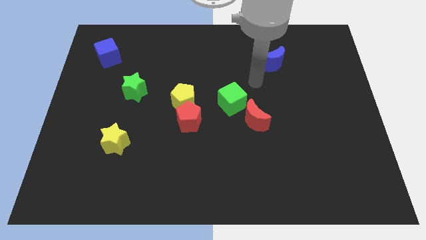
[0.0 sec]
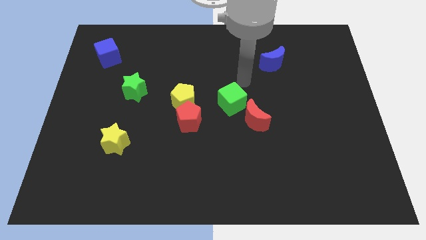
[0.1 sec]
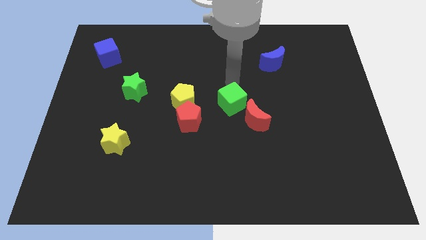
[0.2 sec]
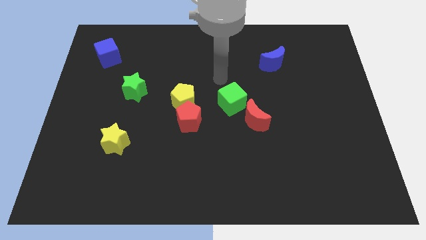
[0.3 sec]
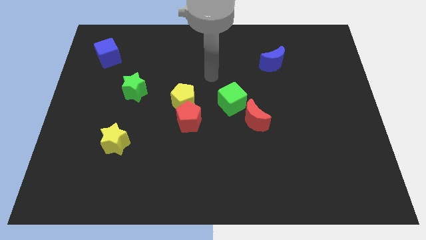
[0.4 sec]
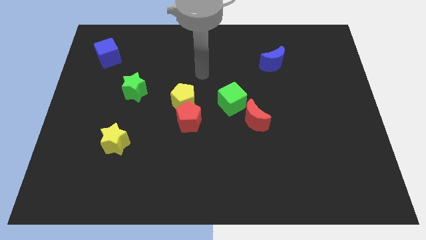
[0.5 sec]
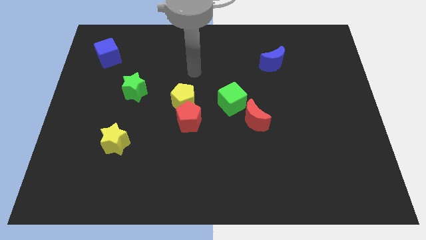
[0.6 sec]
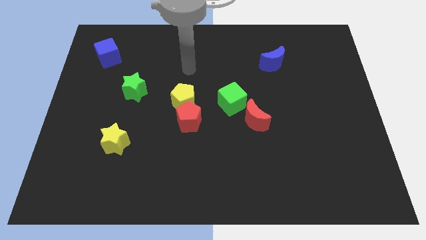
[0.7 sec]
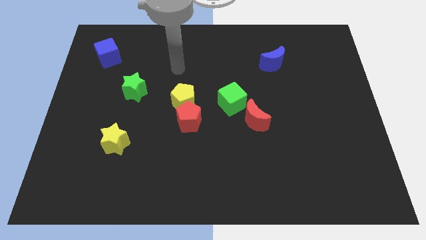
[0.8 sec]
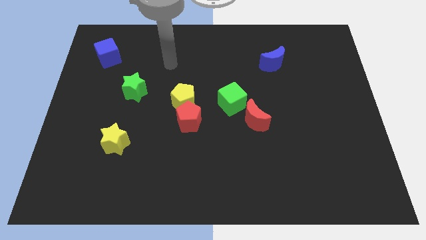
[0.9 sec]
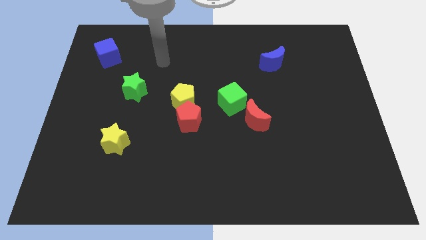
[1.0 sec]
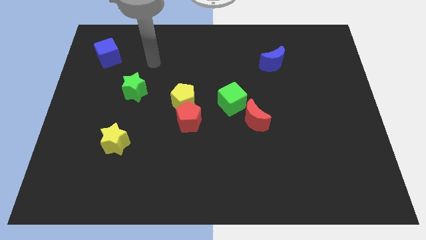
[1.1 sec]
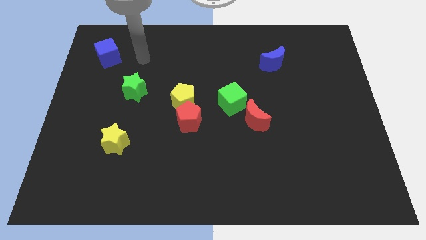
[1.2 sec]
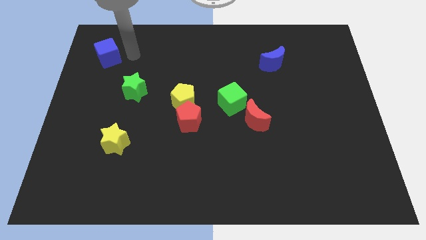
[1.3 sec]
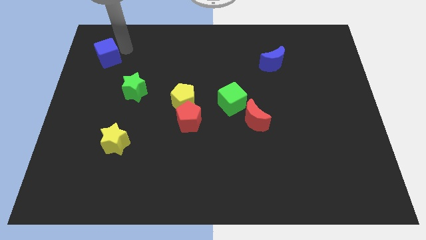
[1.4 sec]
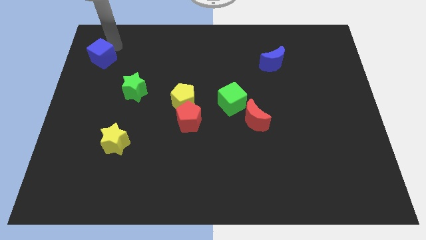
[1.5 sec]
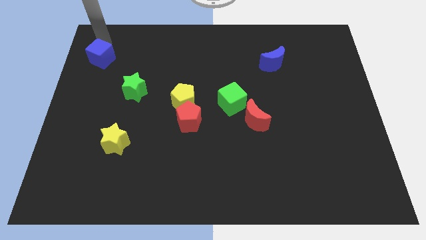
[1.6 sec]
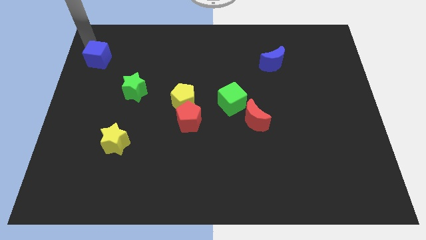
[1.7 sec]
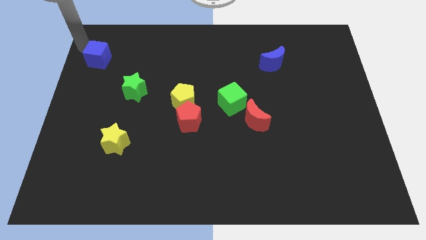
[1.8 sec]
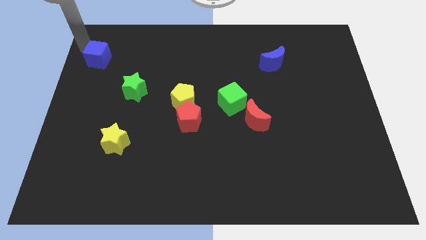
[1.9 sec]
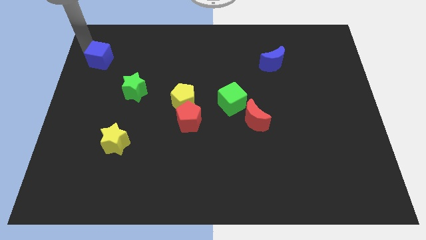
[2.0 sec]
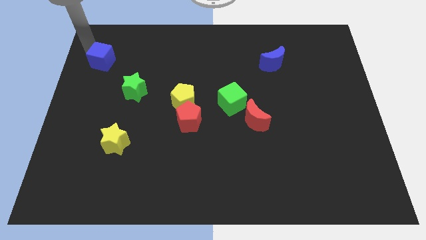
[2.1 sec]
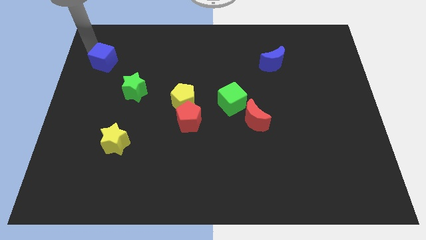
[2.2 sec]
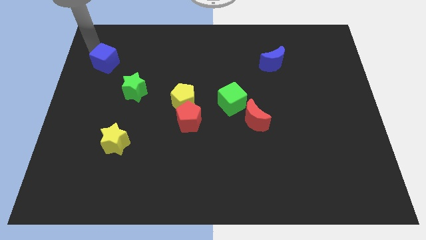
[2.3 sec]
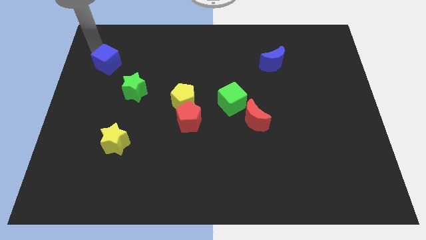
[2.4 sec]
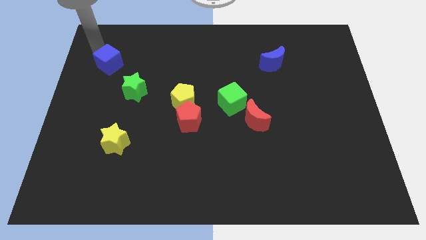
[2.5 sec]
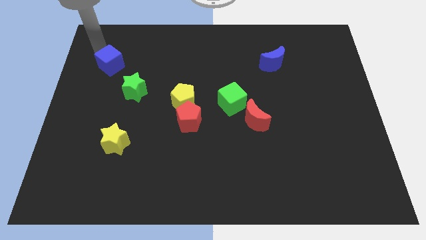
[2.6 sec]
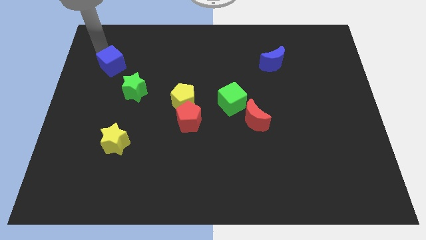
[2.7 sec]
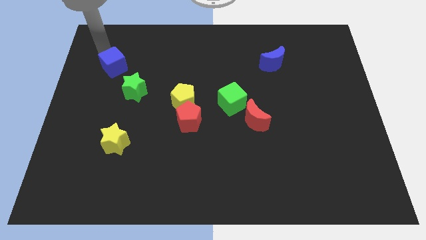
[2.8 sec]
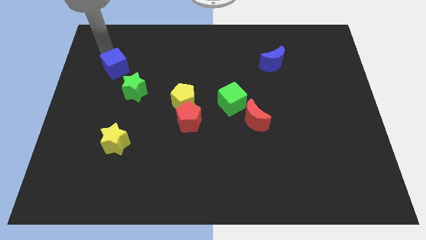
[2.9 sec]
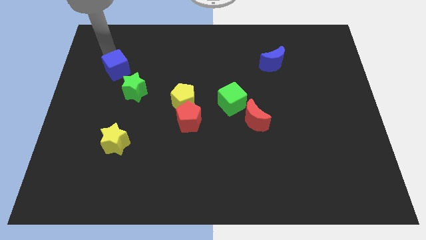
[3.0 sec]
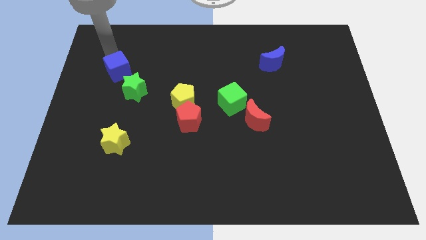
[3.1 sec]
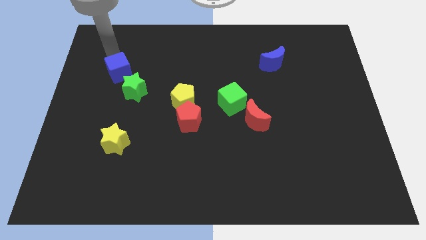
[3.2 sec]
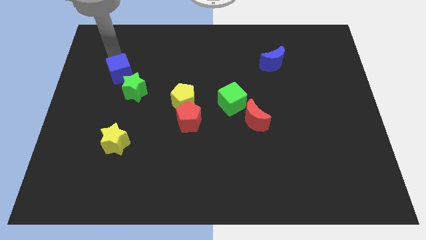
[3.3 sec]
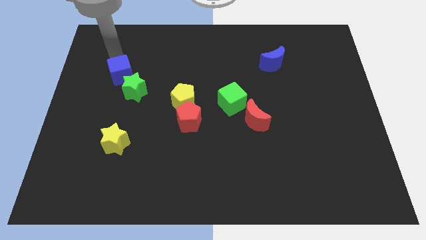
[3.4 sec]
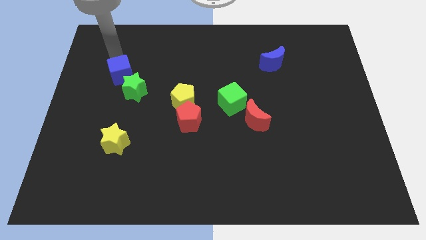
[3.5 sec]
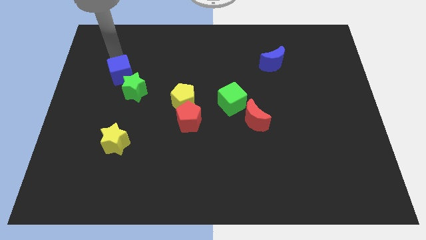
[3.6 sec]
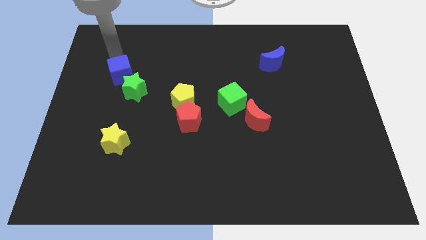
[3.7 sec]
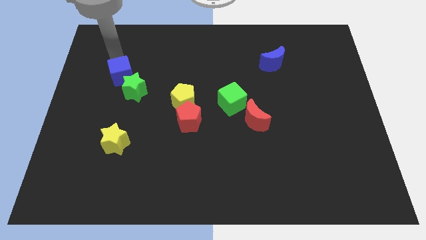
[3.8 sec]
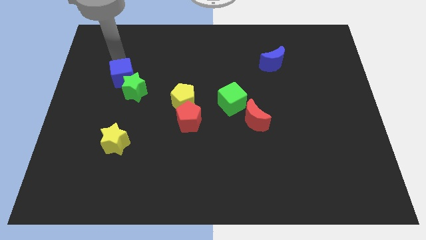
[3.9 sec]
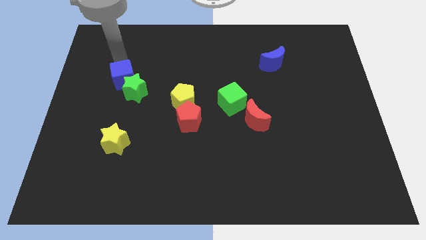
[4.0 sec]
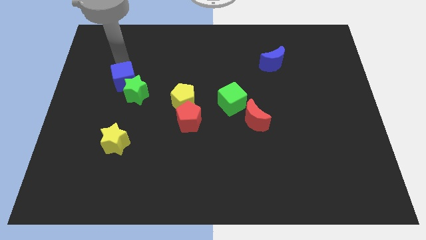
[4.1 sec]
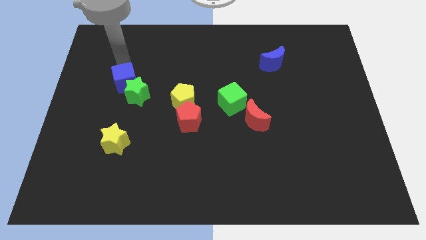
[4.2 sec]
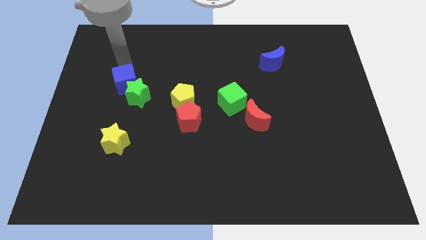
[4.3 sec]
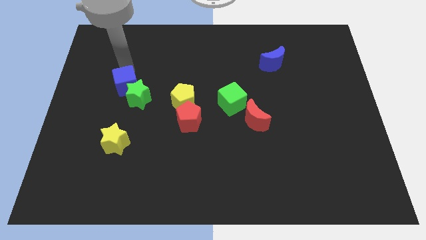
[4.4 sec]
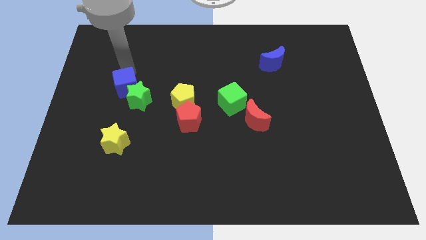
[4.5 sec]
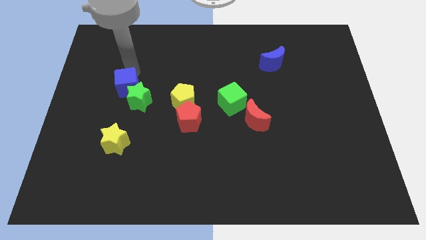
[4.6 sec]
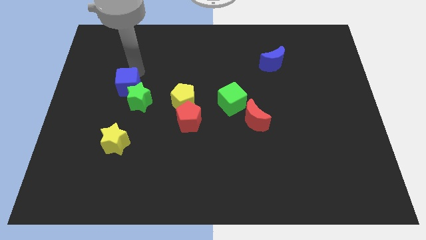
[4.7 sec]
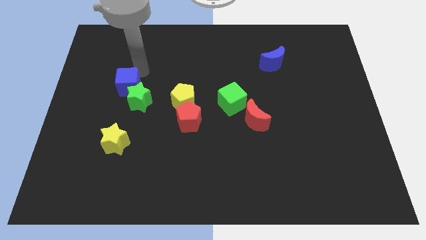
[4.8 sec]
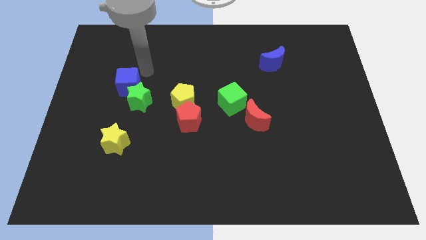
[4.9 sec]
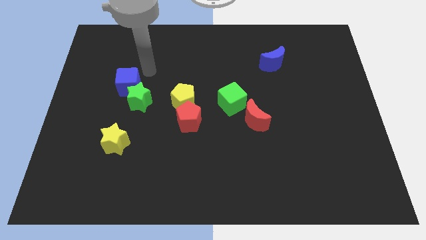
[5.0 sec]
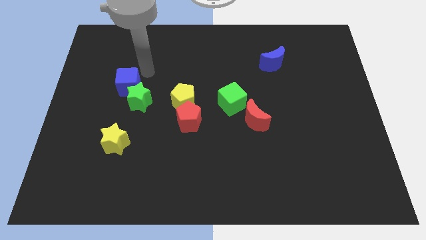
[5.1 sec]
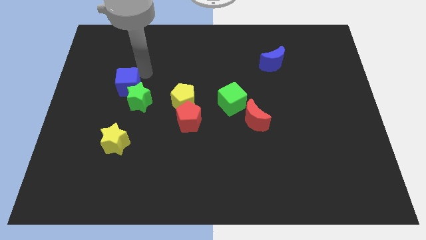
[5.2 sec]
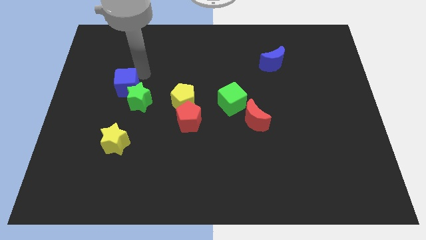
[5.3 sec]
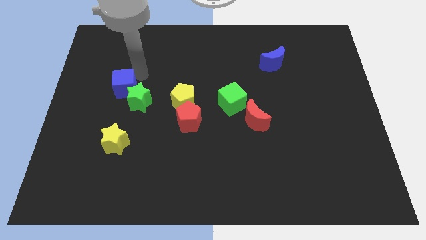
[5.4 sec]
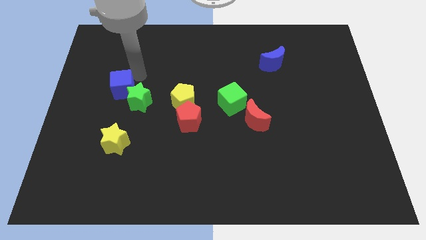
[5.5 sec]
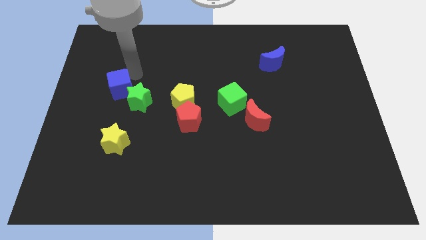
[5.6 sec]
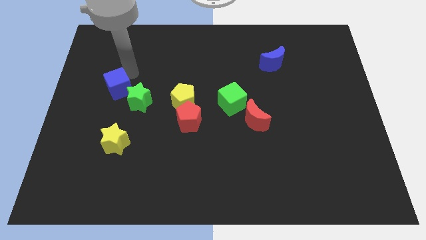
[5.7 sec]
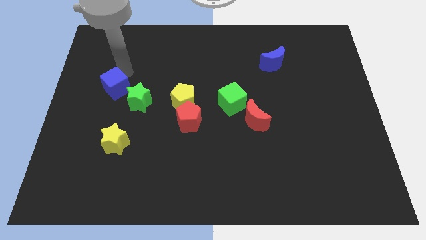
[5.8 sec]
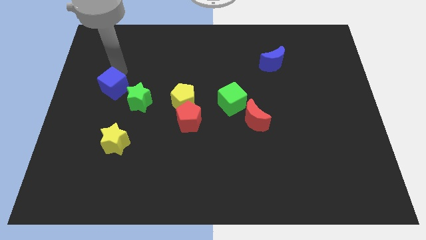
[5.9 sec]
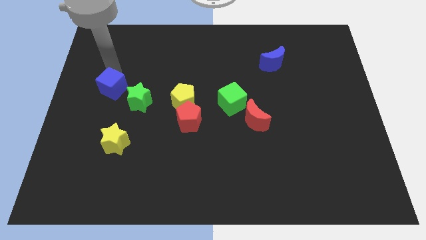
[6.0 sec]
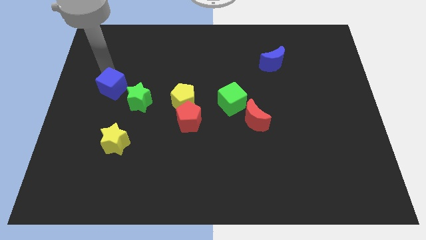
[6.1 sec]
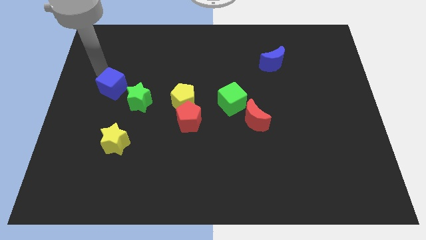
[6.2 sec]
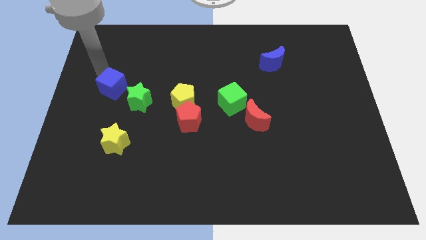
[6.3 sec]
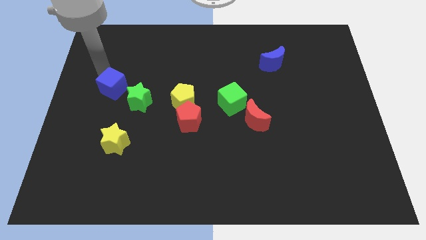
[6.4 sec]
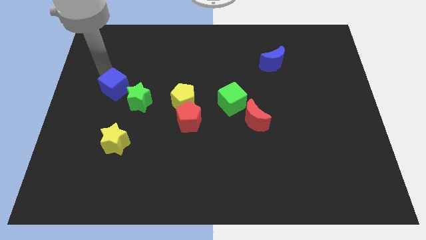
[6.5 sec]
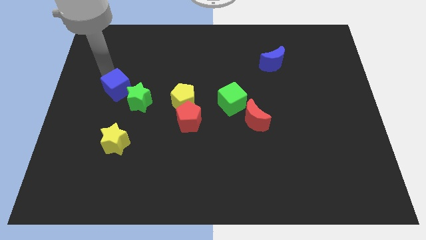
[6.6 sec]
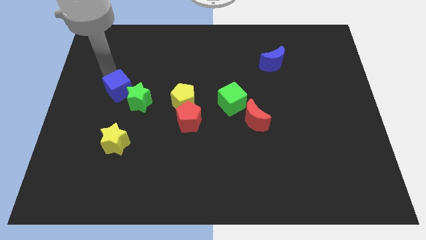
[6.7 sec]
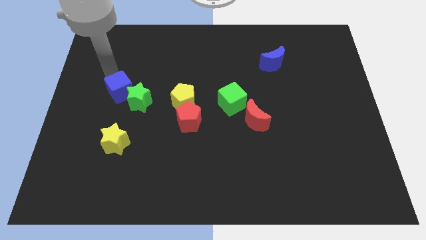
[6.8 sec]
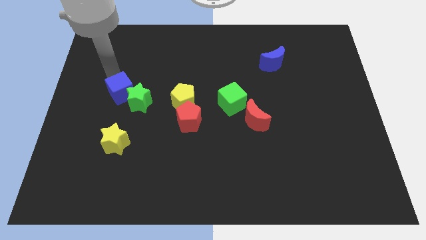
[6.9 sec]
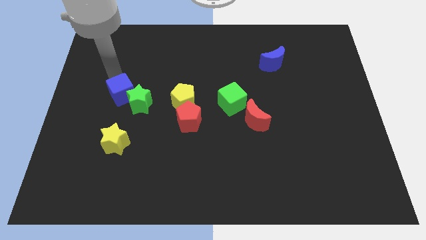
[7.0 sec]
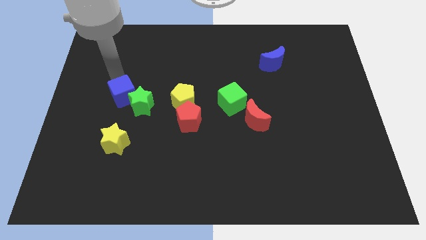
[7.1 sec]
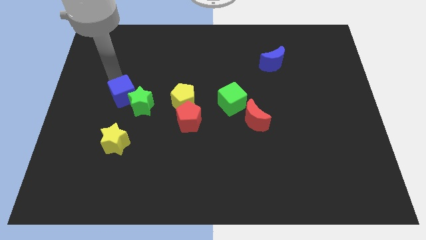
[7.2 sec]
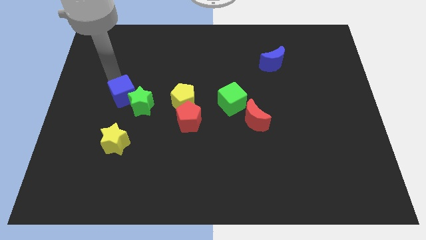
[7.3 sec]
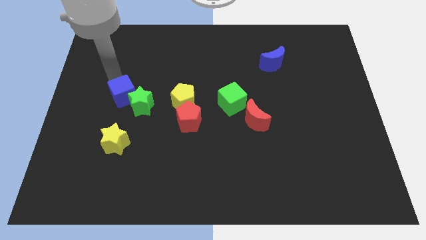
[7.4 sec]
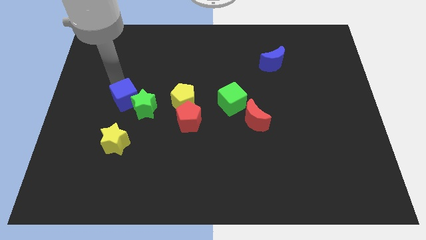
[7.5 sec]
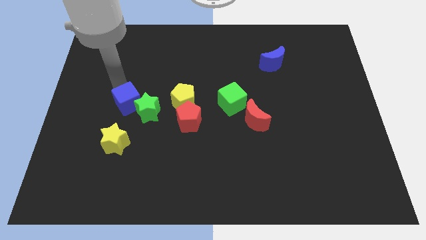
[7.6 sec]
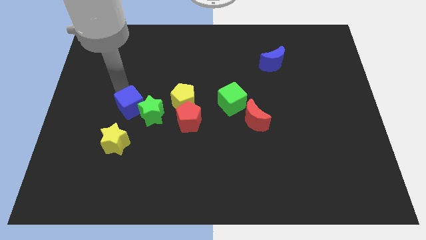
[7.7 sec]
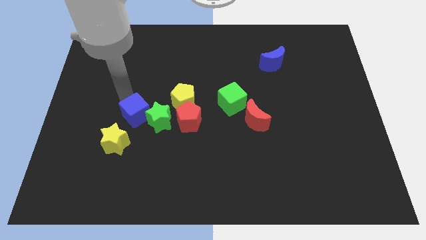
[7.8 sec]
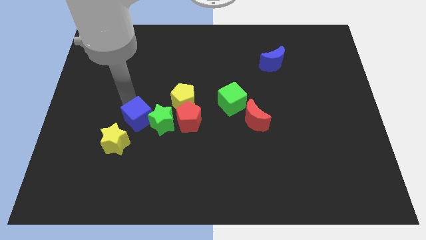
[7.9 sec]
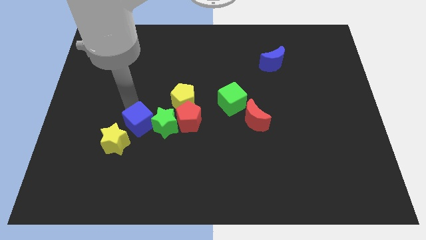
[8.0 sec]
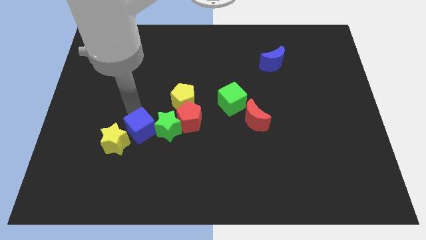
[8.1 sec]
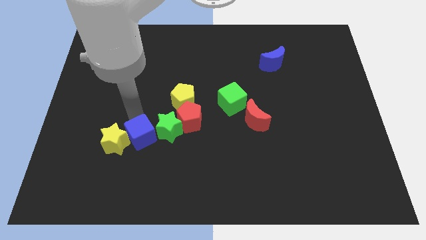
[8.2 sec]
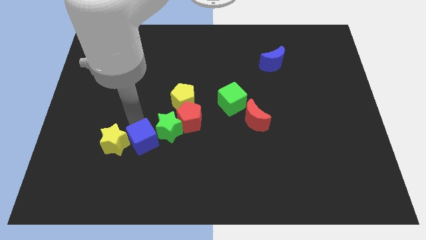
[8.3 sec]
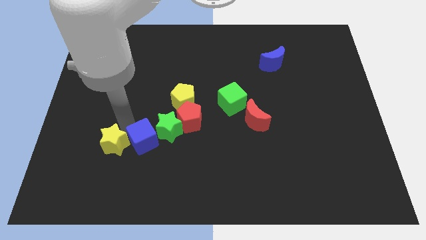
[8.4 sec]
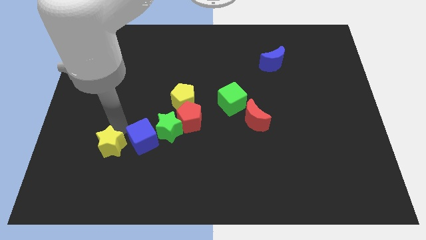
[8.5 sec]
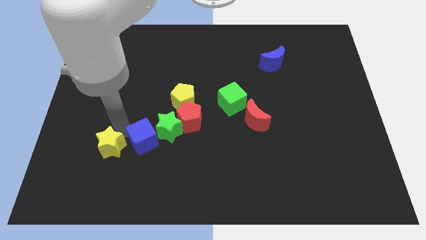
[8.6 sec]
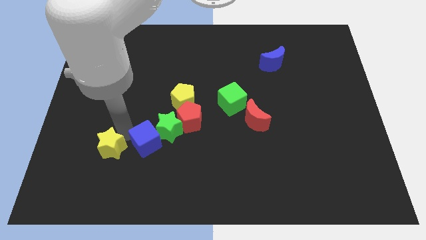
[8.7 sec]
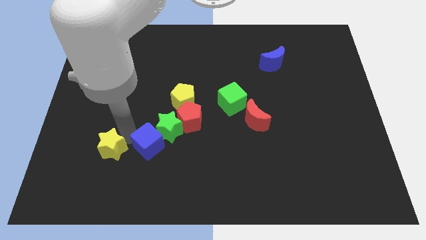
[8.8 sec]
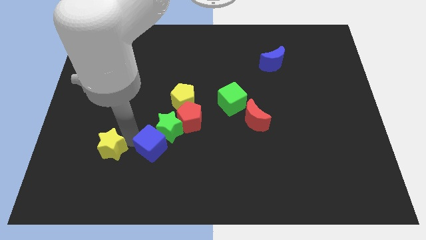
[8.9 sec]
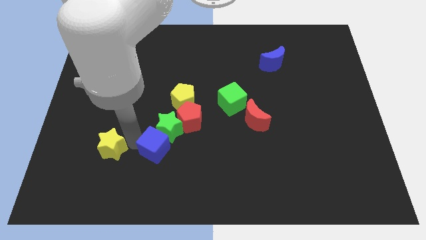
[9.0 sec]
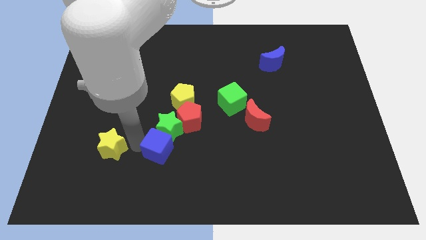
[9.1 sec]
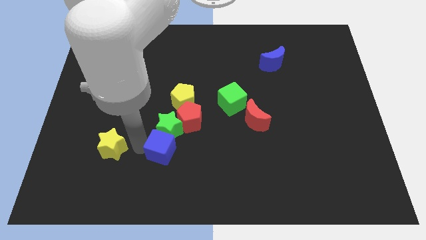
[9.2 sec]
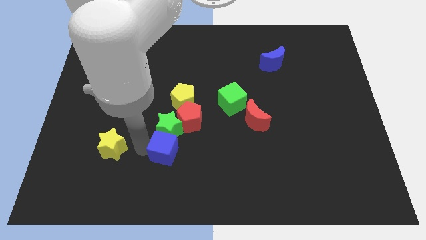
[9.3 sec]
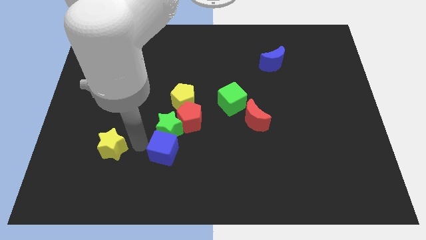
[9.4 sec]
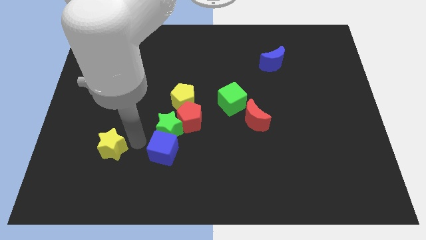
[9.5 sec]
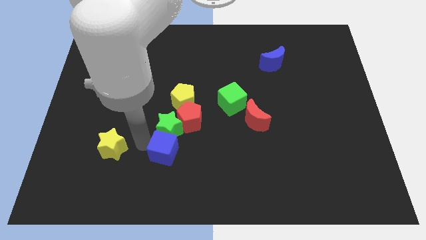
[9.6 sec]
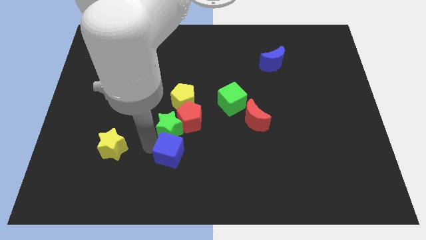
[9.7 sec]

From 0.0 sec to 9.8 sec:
move the blue cube to the bottom of the red pentagon
